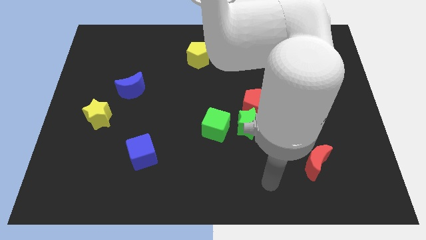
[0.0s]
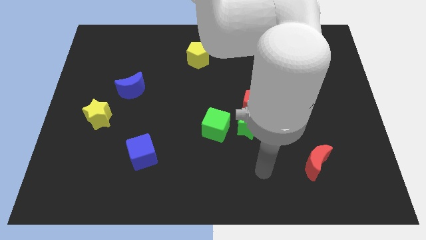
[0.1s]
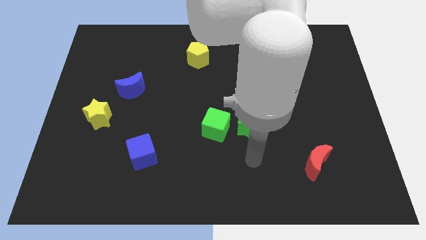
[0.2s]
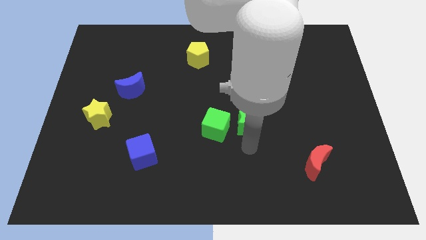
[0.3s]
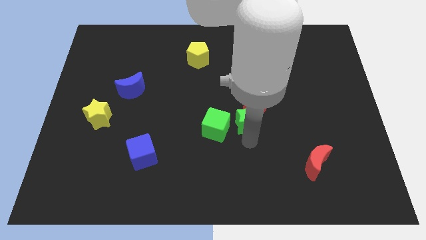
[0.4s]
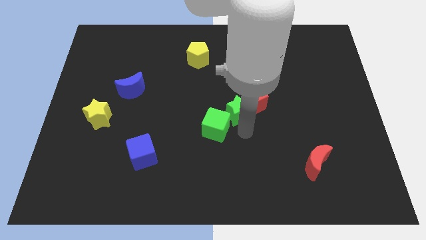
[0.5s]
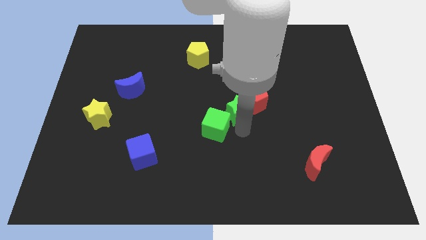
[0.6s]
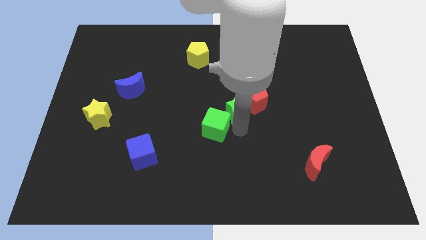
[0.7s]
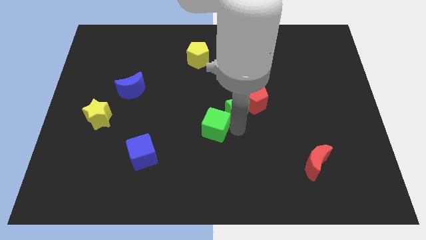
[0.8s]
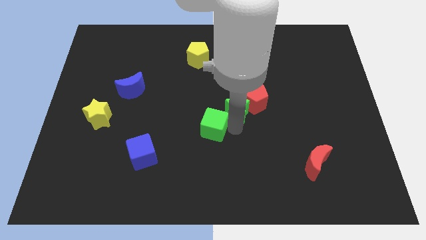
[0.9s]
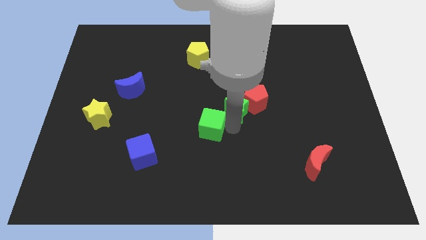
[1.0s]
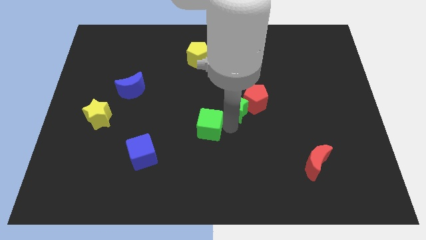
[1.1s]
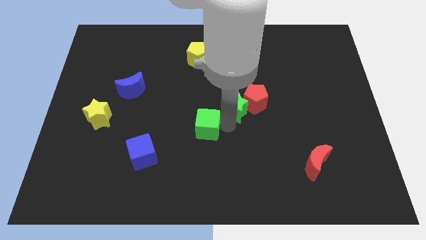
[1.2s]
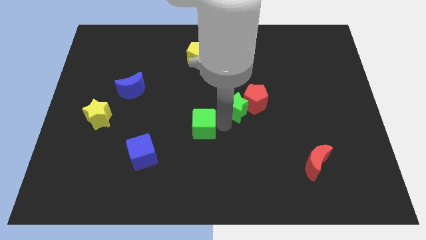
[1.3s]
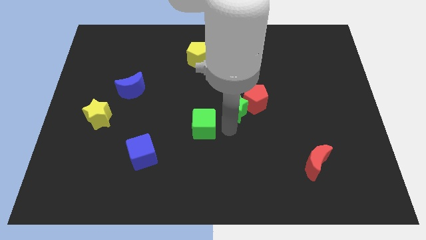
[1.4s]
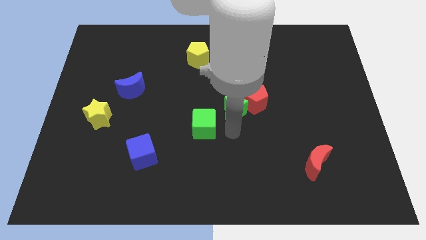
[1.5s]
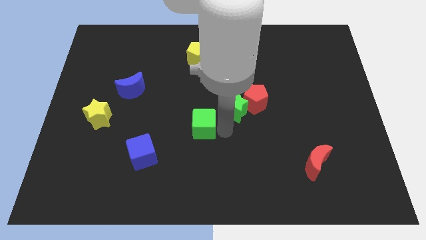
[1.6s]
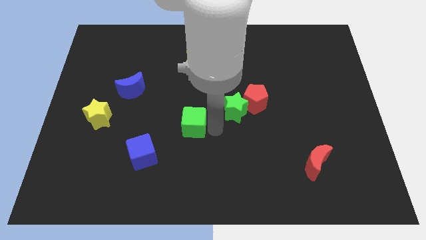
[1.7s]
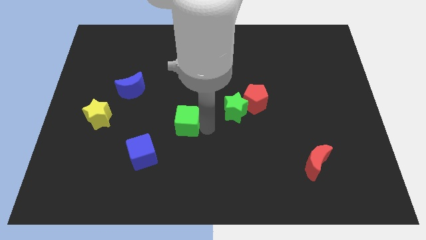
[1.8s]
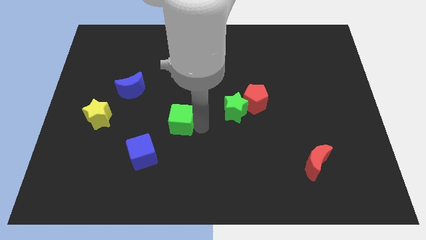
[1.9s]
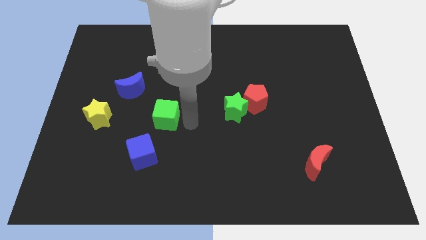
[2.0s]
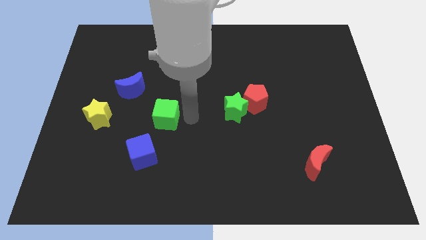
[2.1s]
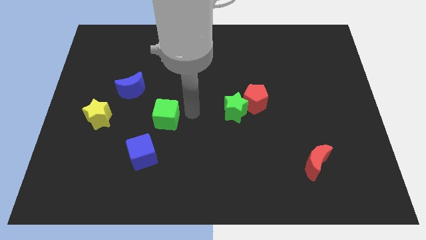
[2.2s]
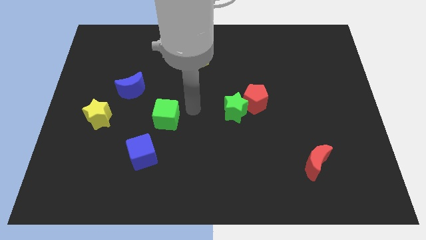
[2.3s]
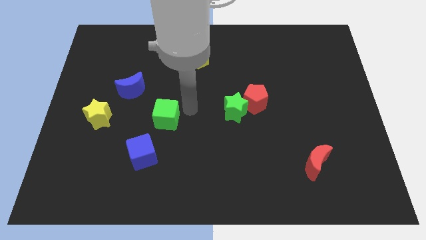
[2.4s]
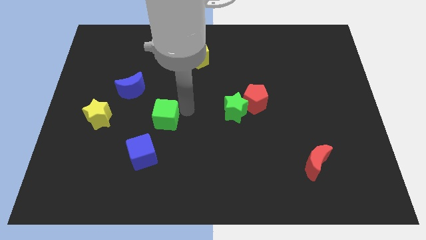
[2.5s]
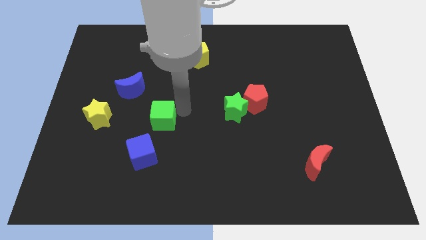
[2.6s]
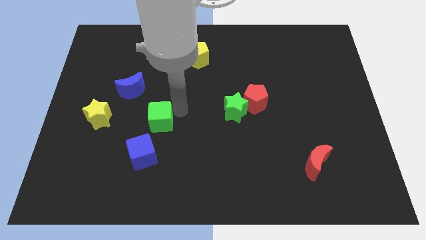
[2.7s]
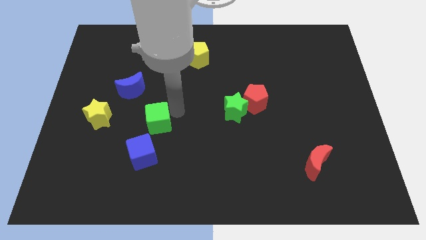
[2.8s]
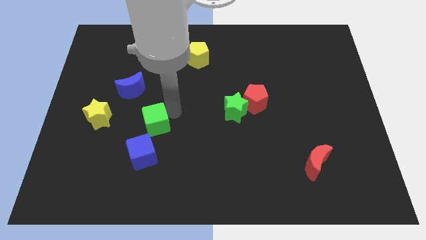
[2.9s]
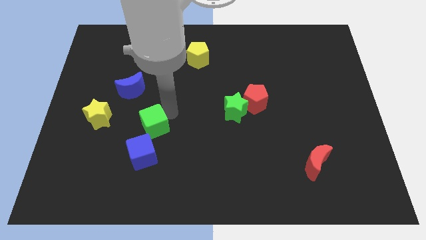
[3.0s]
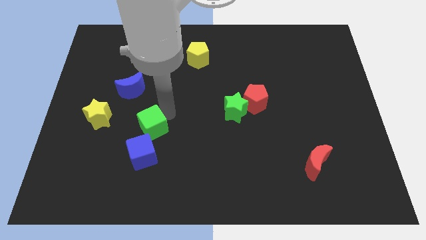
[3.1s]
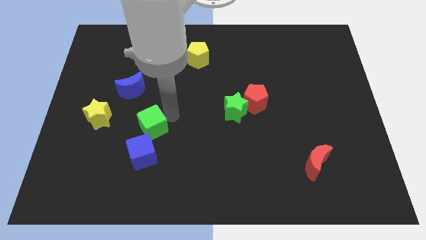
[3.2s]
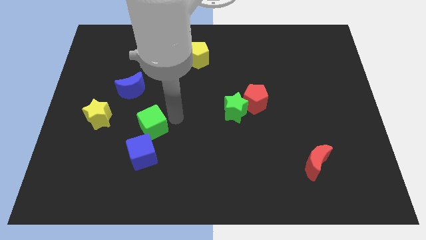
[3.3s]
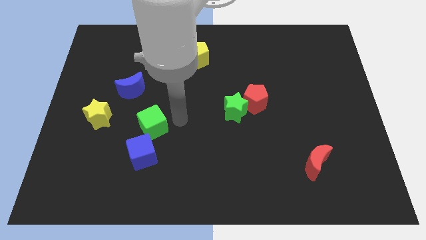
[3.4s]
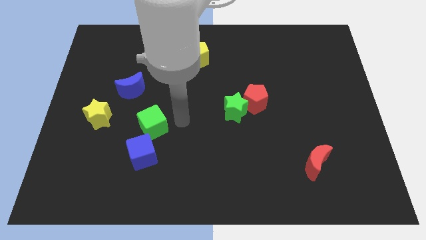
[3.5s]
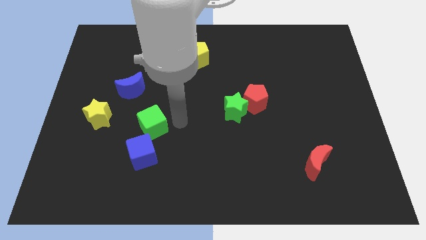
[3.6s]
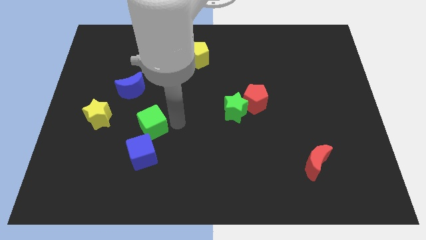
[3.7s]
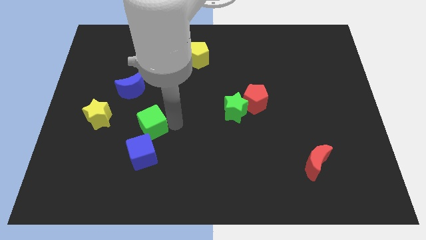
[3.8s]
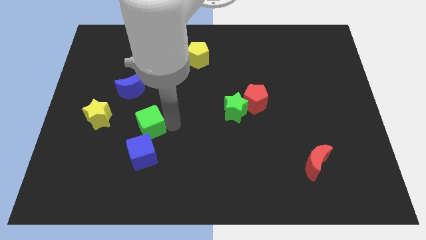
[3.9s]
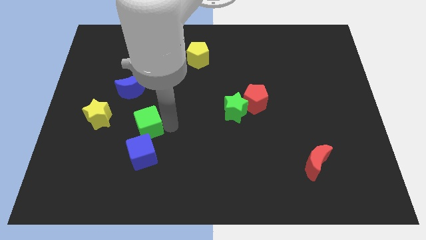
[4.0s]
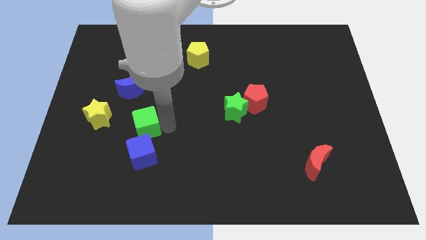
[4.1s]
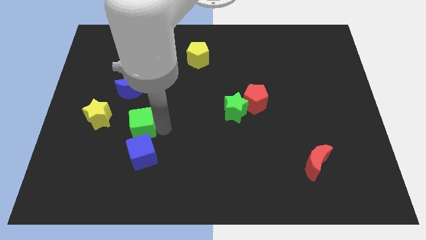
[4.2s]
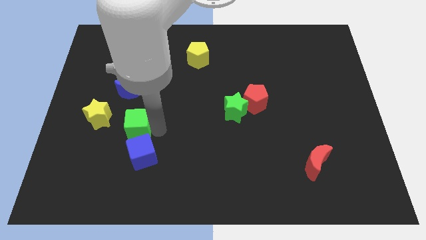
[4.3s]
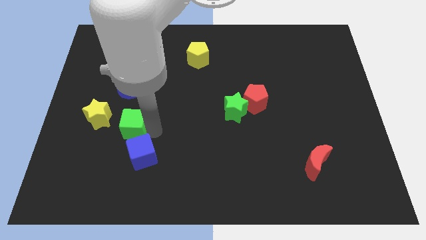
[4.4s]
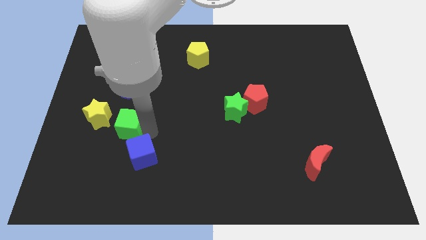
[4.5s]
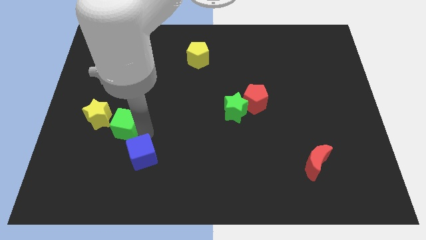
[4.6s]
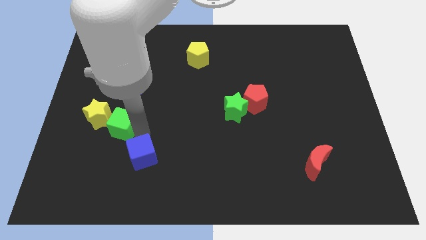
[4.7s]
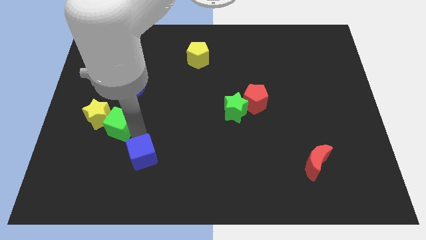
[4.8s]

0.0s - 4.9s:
push the green cube to the yellow star

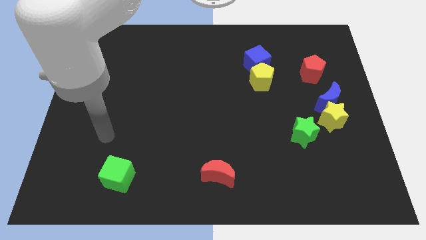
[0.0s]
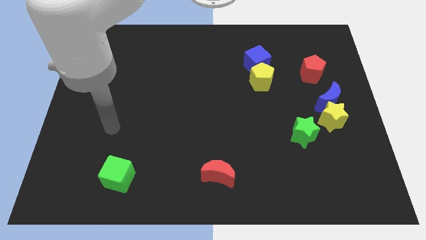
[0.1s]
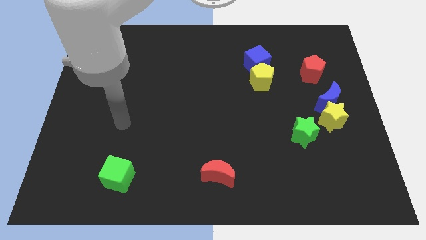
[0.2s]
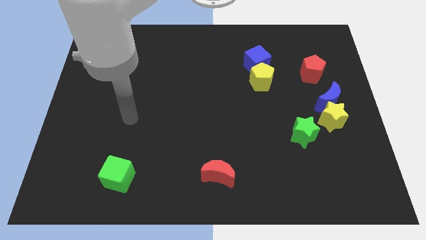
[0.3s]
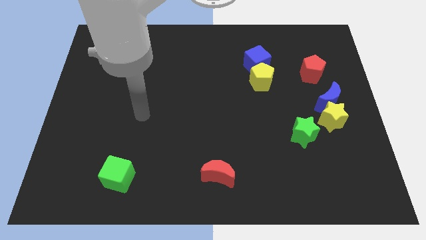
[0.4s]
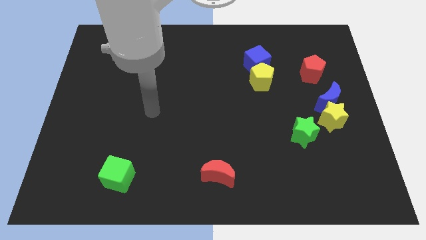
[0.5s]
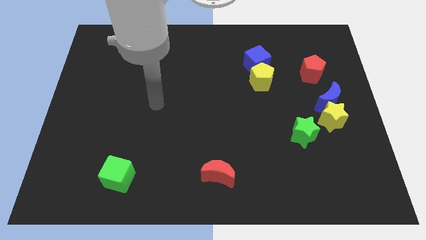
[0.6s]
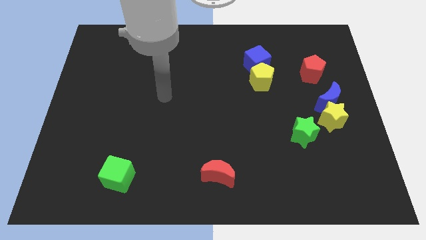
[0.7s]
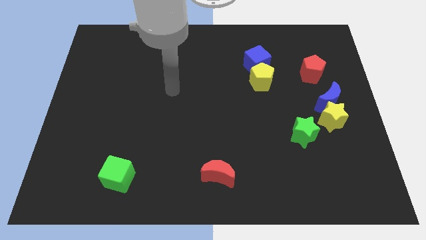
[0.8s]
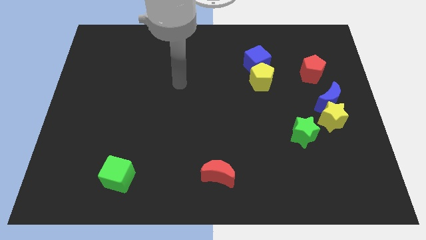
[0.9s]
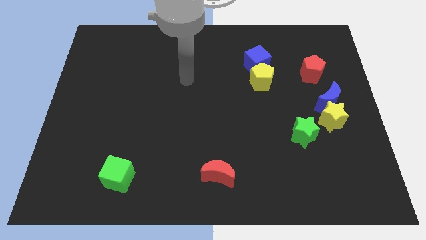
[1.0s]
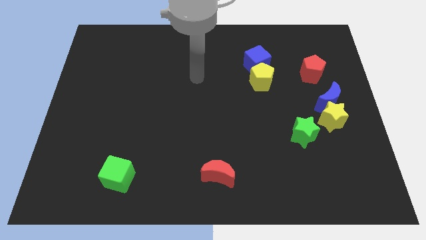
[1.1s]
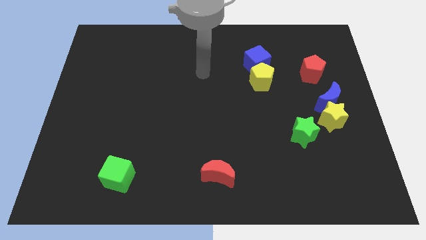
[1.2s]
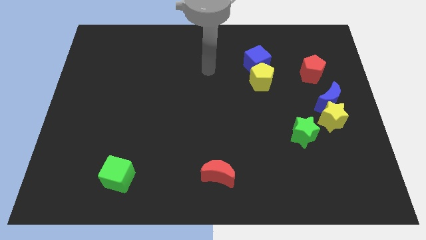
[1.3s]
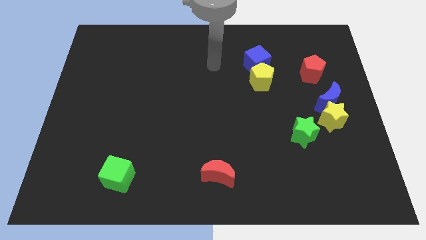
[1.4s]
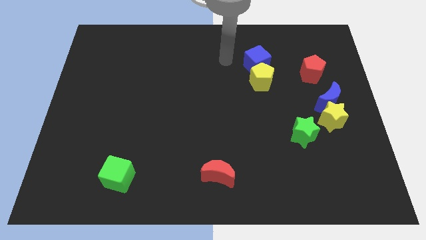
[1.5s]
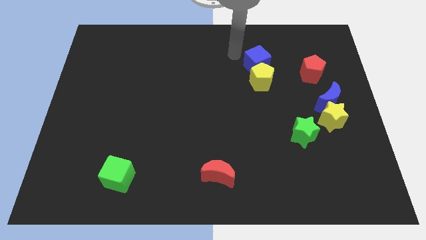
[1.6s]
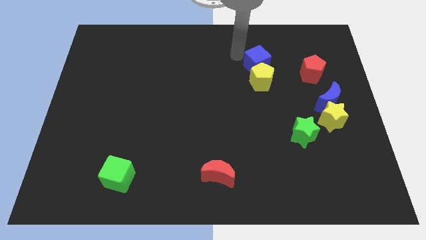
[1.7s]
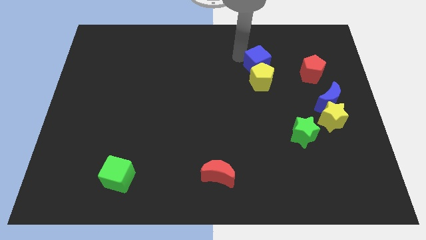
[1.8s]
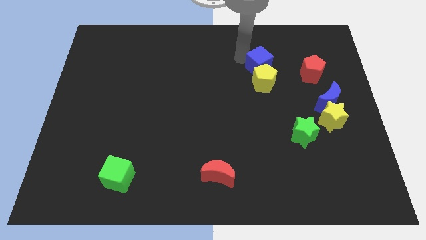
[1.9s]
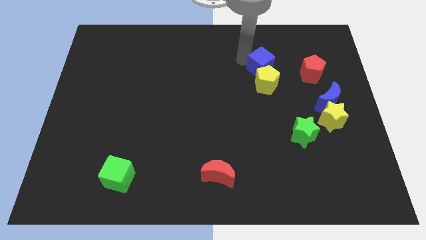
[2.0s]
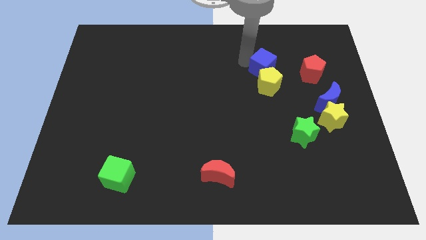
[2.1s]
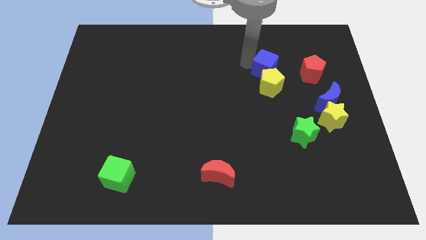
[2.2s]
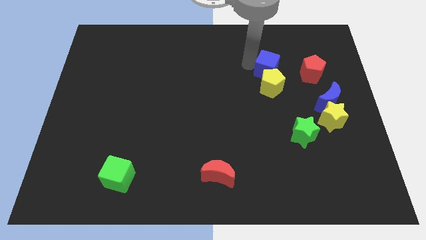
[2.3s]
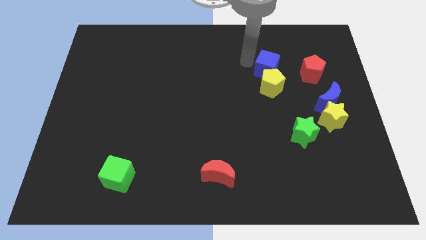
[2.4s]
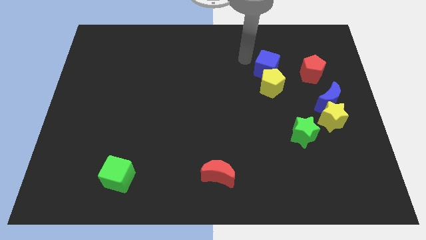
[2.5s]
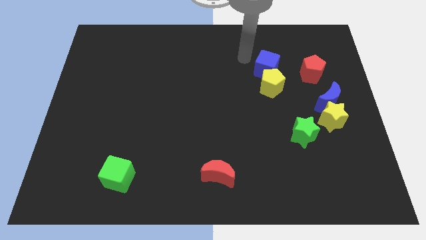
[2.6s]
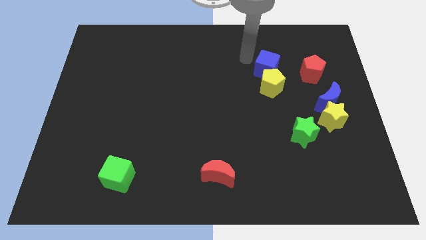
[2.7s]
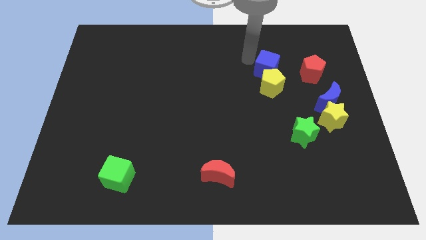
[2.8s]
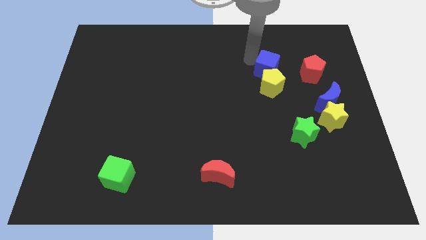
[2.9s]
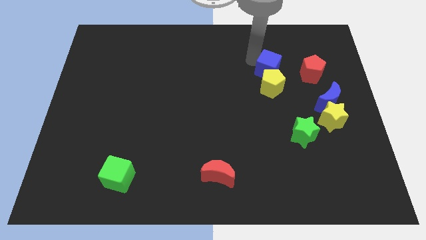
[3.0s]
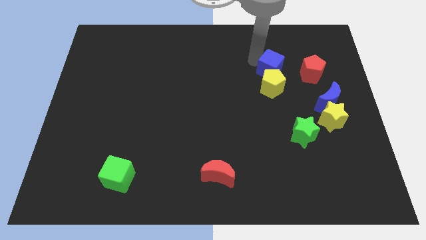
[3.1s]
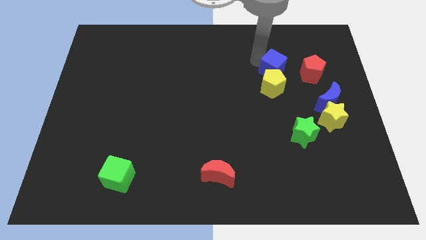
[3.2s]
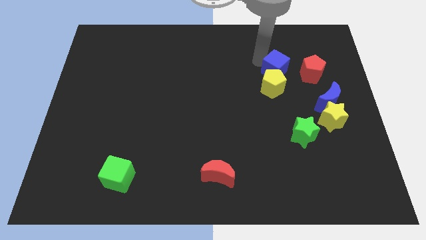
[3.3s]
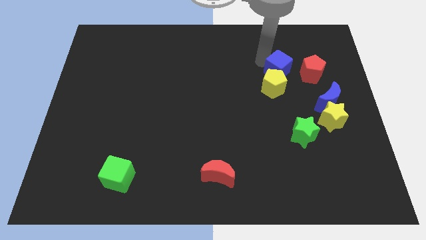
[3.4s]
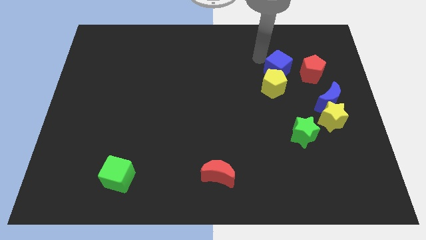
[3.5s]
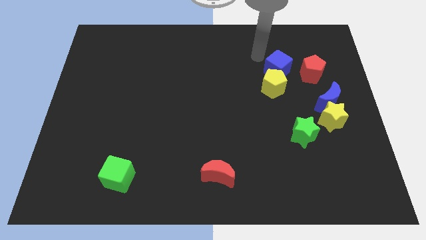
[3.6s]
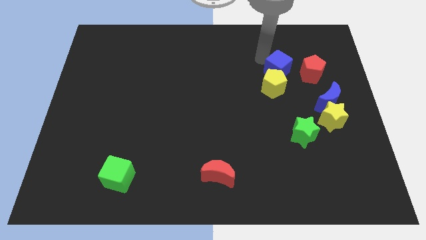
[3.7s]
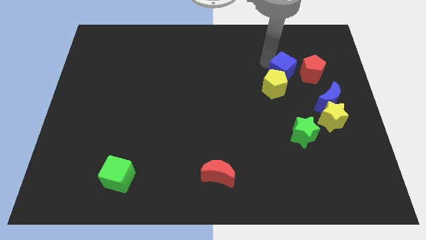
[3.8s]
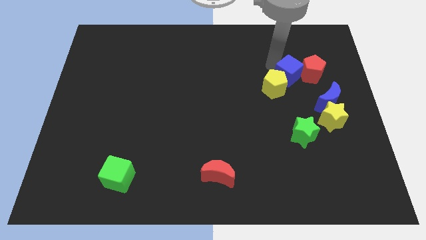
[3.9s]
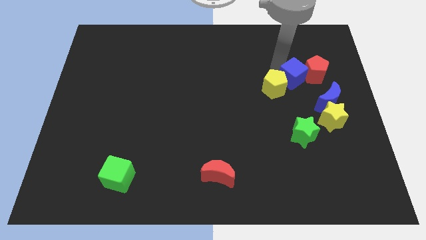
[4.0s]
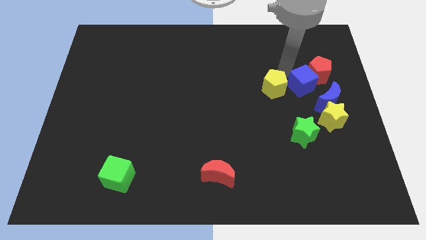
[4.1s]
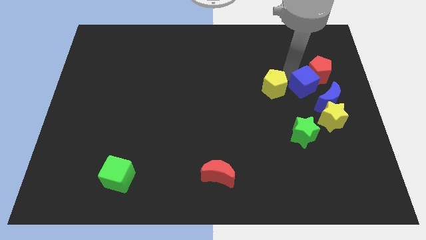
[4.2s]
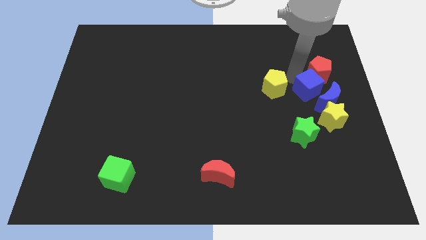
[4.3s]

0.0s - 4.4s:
slide the blue cube towards the blue moon
